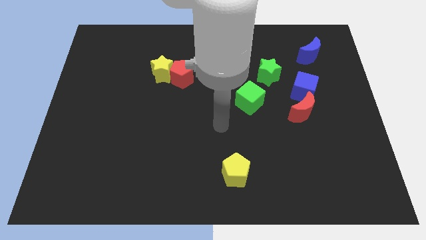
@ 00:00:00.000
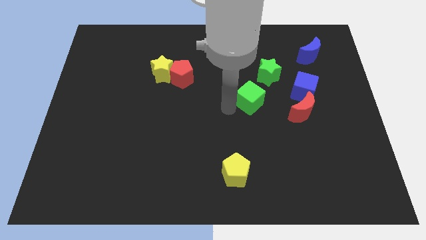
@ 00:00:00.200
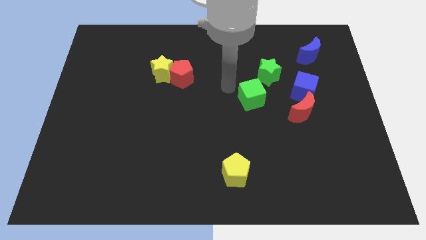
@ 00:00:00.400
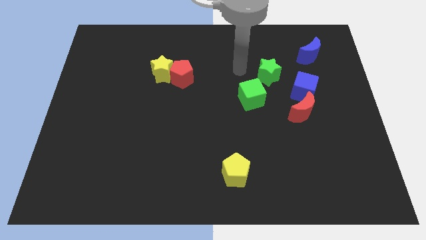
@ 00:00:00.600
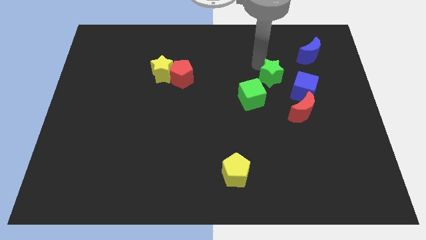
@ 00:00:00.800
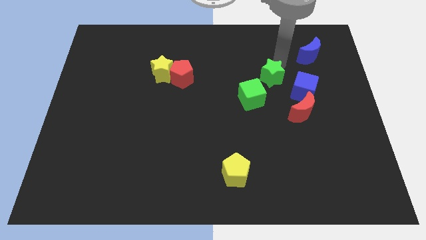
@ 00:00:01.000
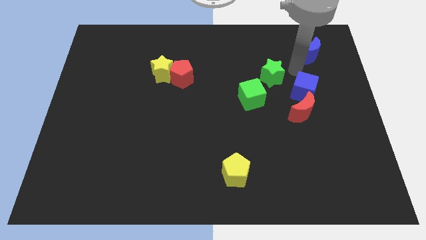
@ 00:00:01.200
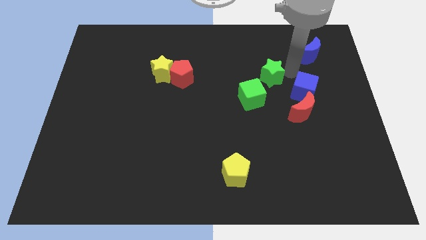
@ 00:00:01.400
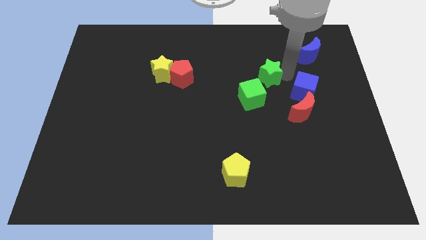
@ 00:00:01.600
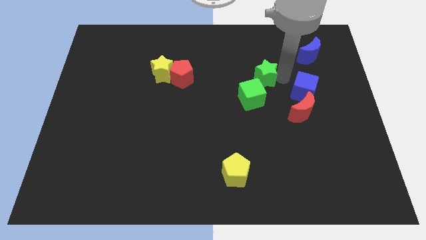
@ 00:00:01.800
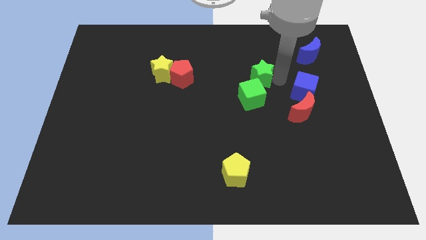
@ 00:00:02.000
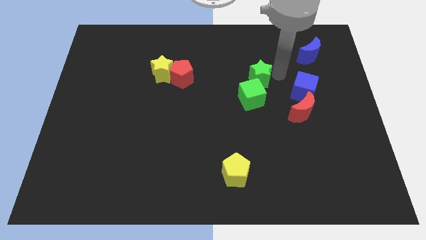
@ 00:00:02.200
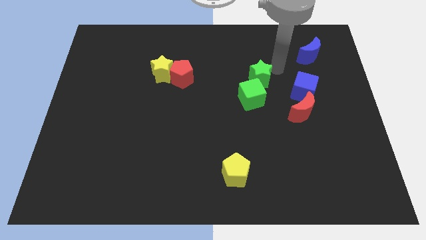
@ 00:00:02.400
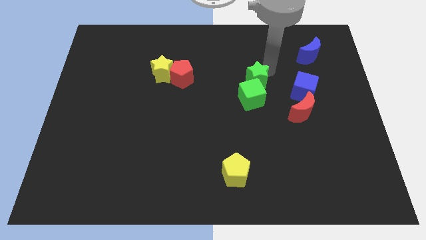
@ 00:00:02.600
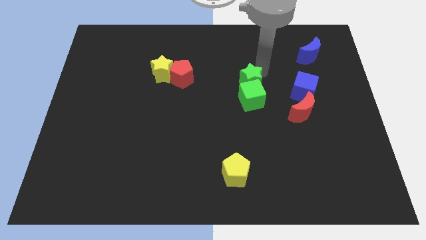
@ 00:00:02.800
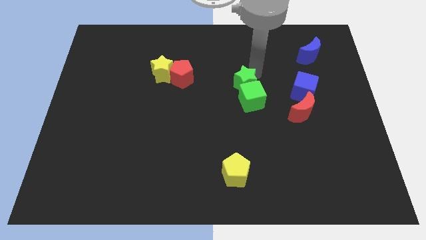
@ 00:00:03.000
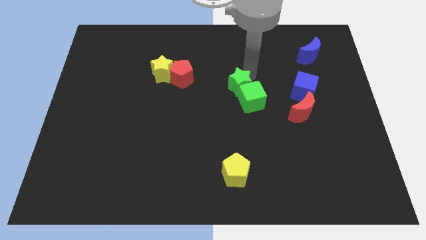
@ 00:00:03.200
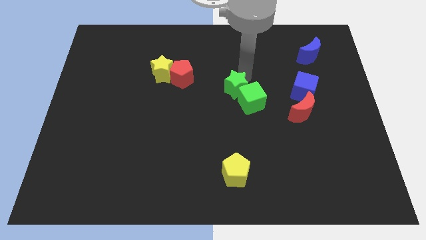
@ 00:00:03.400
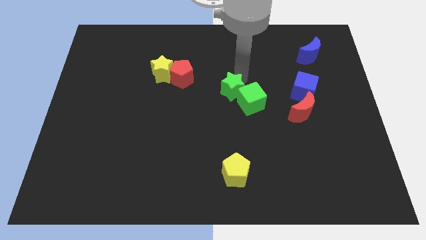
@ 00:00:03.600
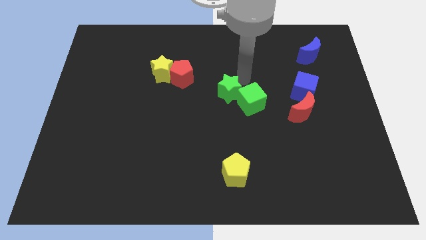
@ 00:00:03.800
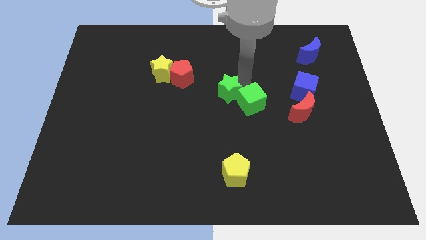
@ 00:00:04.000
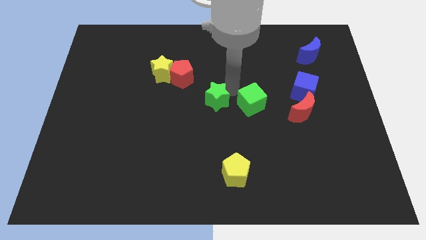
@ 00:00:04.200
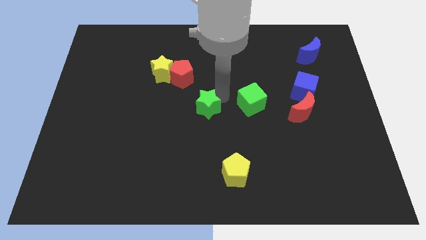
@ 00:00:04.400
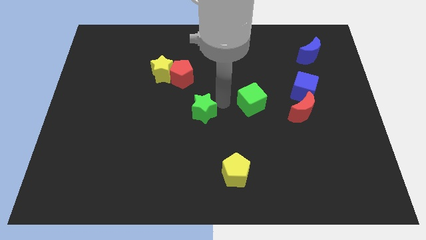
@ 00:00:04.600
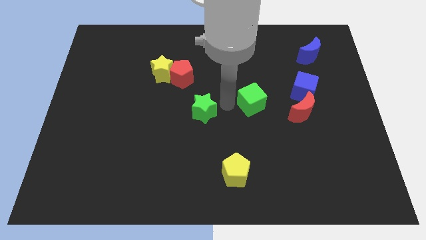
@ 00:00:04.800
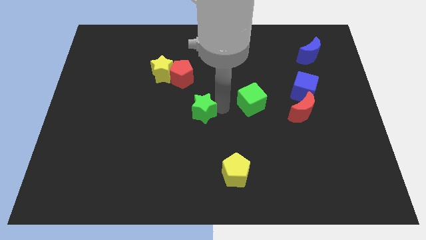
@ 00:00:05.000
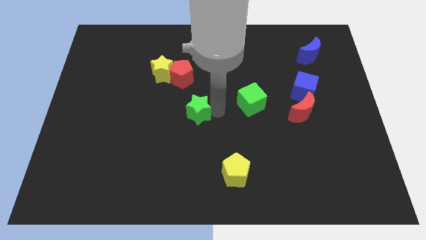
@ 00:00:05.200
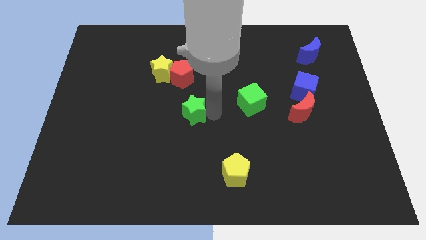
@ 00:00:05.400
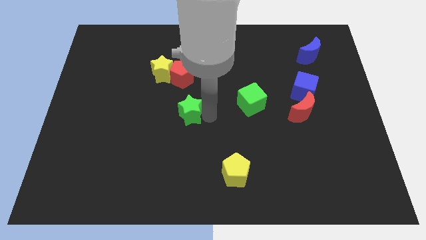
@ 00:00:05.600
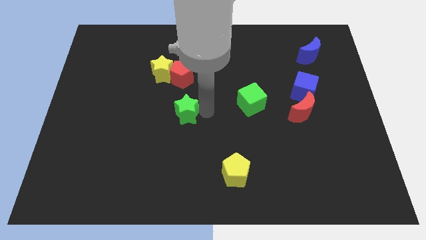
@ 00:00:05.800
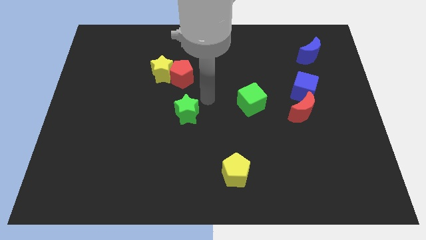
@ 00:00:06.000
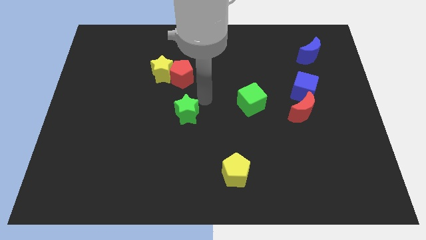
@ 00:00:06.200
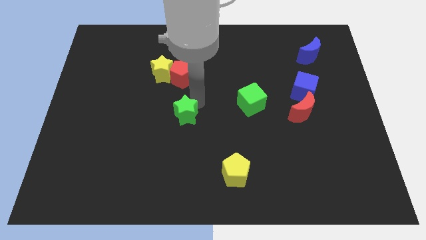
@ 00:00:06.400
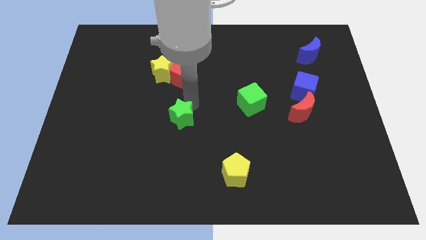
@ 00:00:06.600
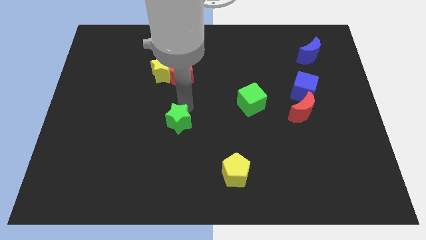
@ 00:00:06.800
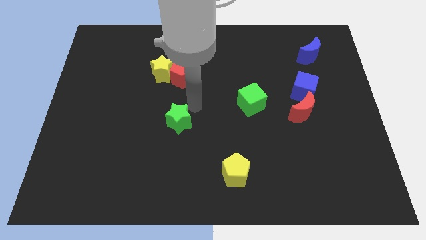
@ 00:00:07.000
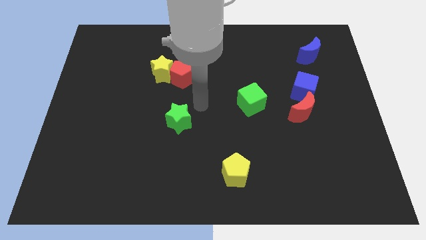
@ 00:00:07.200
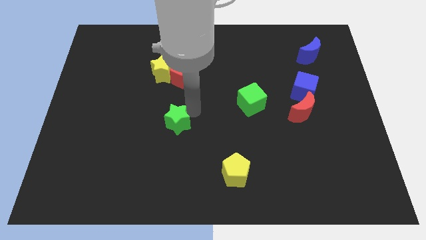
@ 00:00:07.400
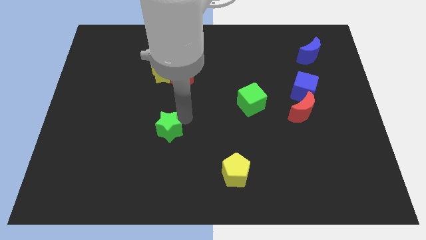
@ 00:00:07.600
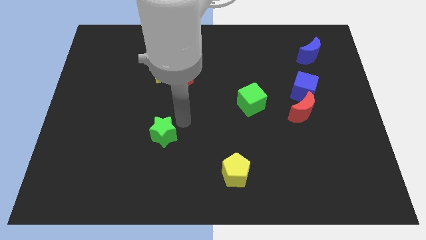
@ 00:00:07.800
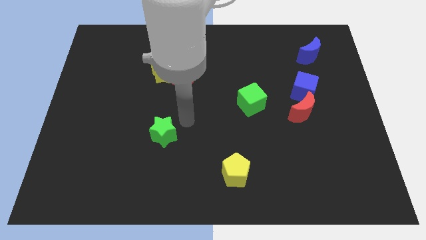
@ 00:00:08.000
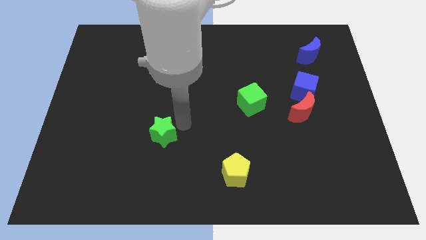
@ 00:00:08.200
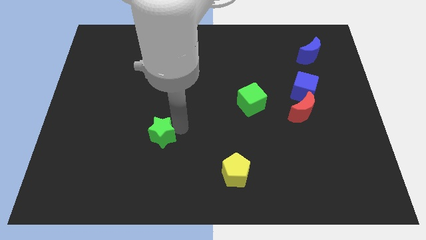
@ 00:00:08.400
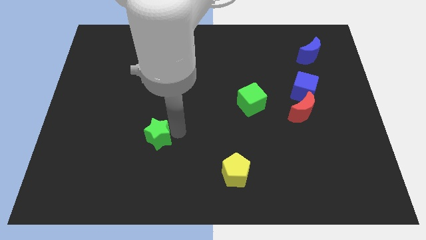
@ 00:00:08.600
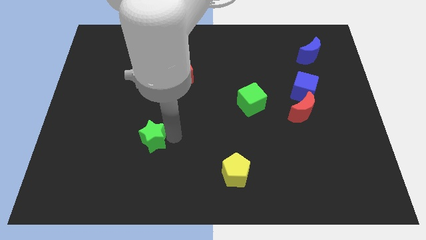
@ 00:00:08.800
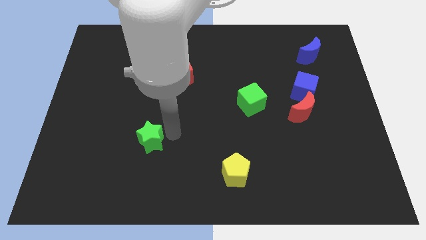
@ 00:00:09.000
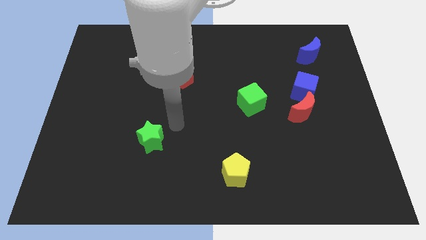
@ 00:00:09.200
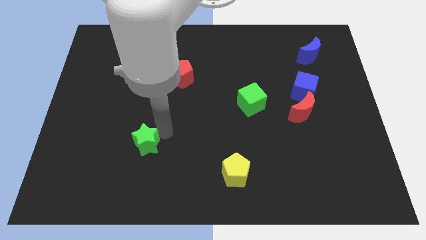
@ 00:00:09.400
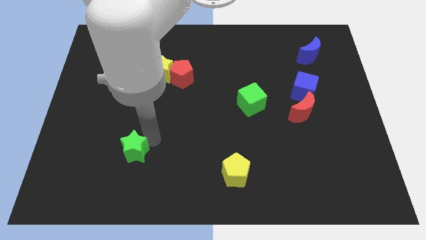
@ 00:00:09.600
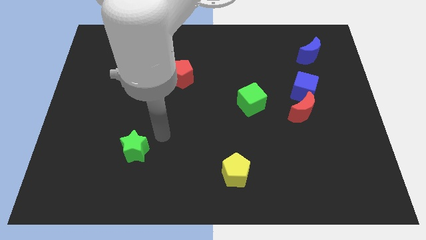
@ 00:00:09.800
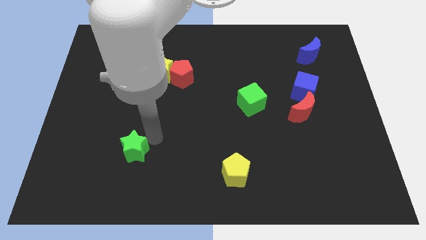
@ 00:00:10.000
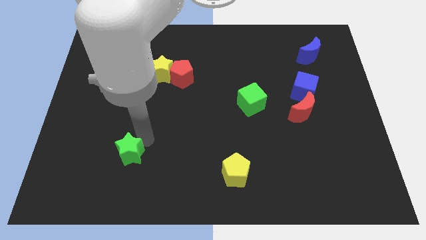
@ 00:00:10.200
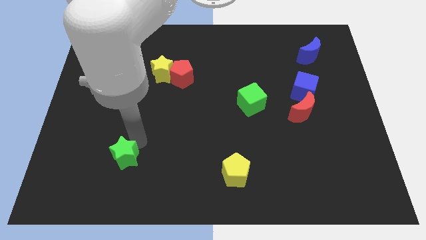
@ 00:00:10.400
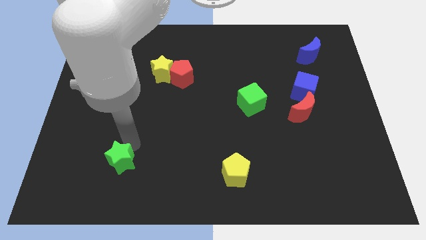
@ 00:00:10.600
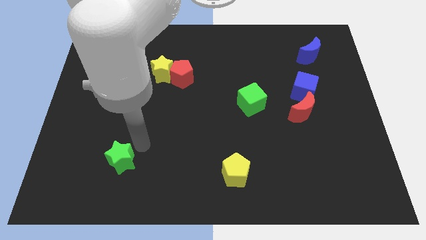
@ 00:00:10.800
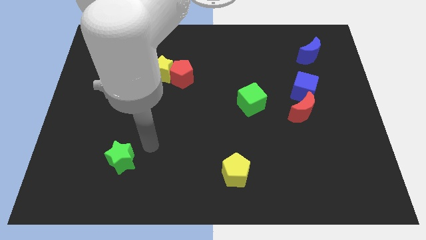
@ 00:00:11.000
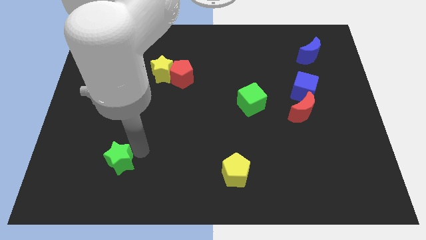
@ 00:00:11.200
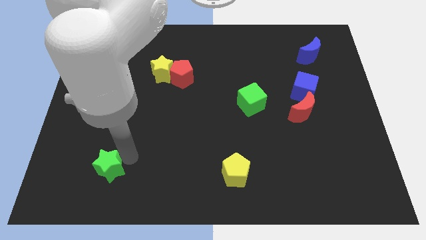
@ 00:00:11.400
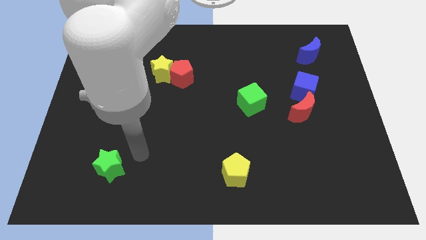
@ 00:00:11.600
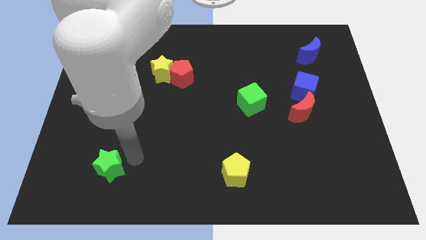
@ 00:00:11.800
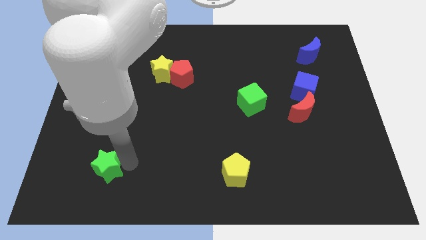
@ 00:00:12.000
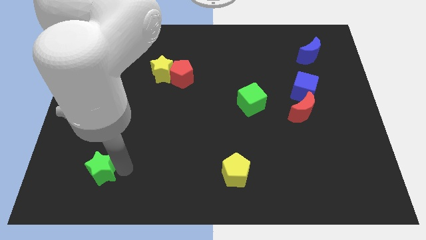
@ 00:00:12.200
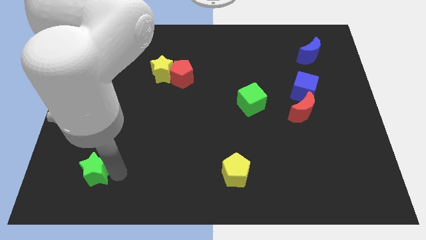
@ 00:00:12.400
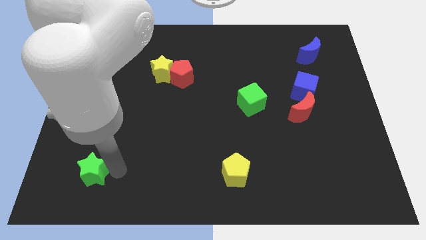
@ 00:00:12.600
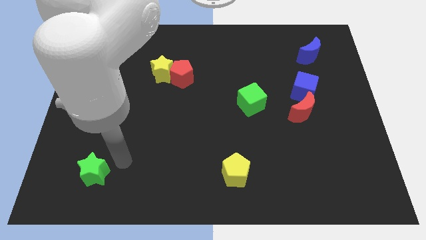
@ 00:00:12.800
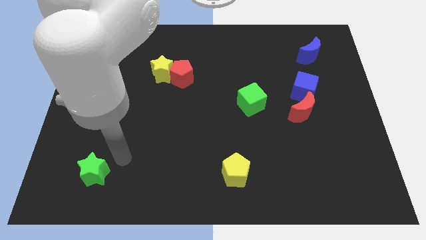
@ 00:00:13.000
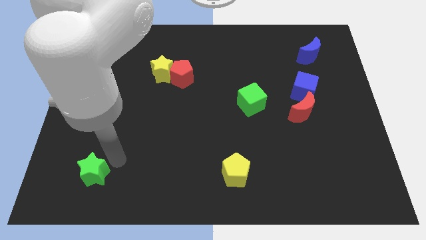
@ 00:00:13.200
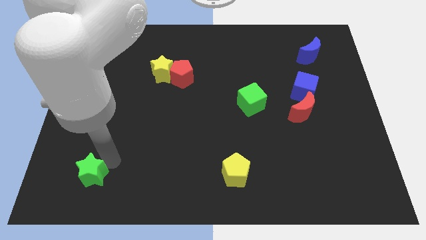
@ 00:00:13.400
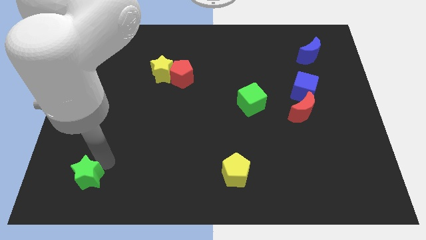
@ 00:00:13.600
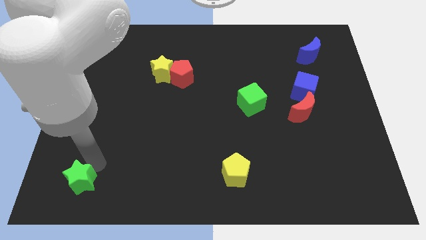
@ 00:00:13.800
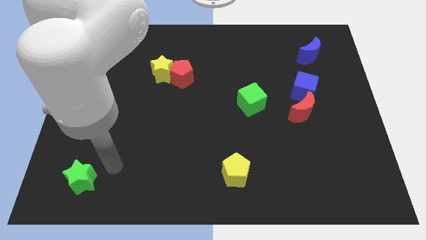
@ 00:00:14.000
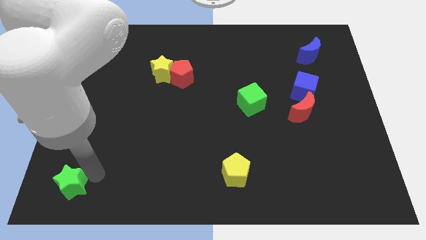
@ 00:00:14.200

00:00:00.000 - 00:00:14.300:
push the green star to the bottom left of the board
